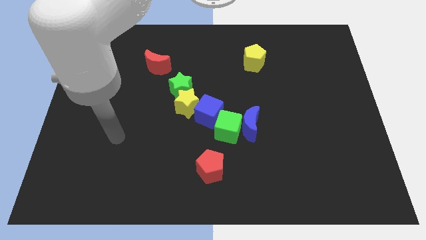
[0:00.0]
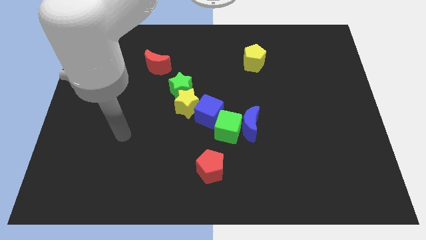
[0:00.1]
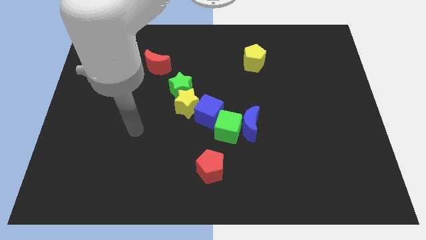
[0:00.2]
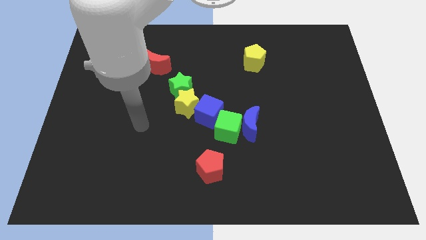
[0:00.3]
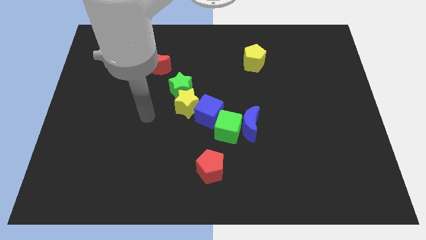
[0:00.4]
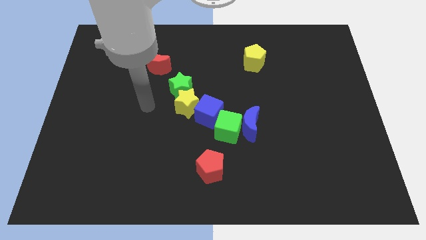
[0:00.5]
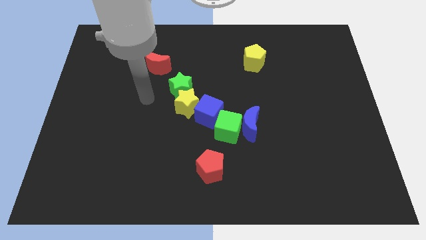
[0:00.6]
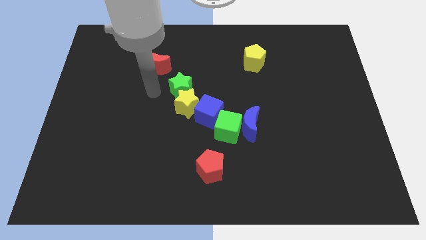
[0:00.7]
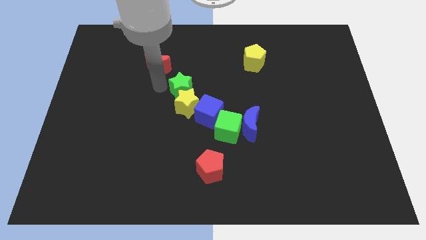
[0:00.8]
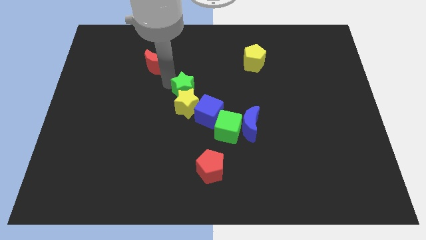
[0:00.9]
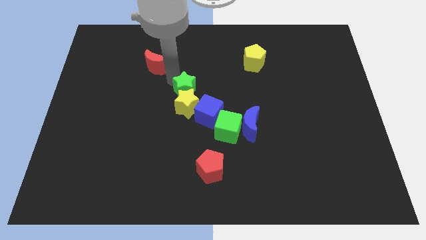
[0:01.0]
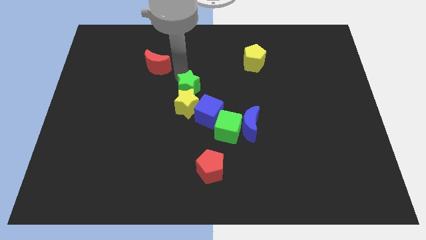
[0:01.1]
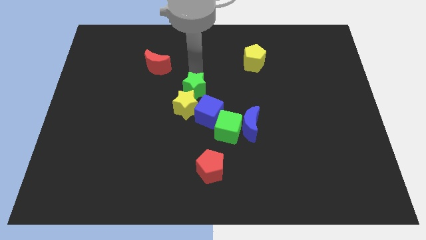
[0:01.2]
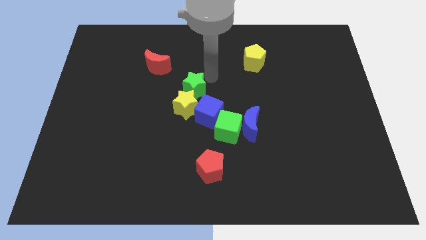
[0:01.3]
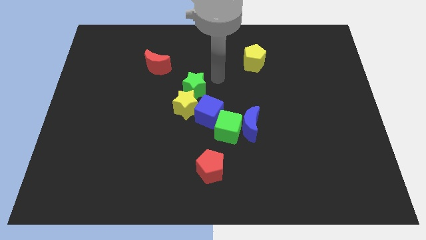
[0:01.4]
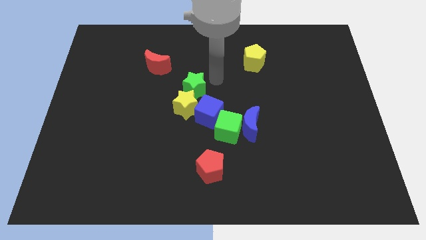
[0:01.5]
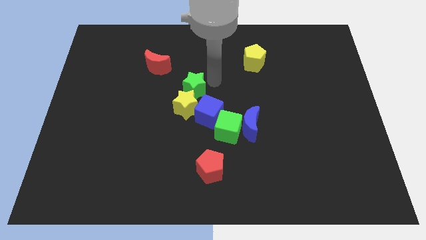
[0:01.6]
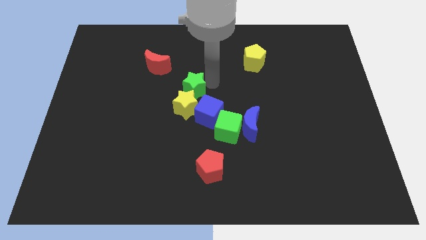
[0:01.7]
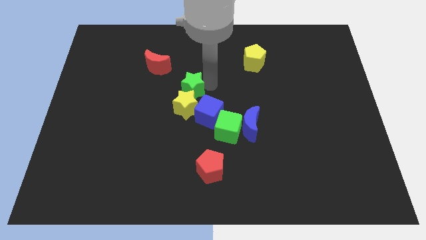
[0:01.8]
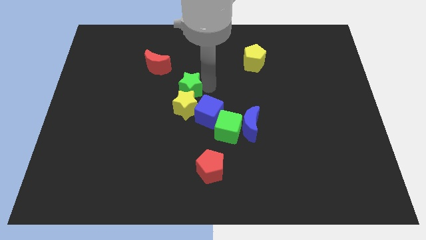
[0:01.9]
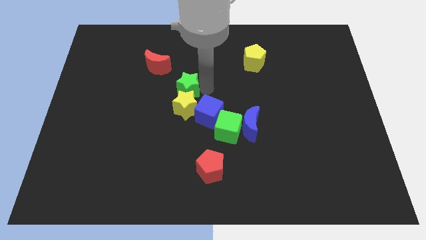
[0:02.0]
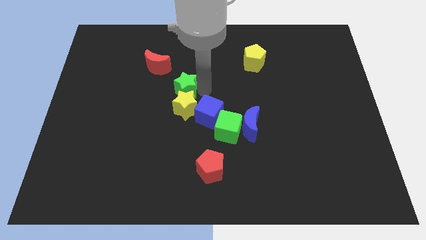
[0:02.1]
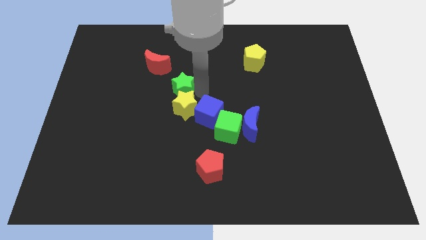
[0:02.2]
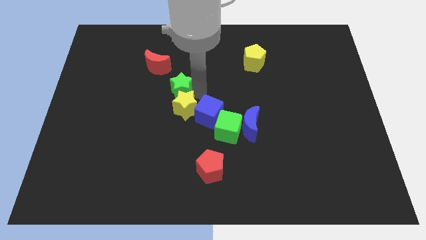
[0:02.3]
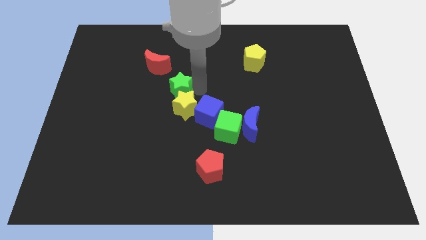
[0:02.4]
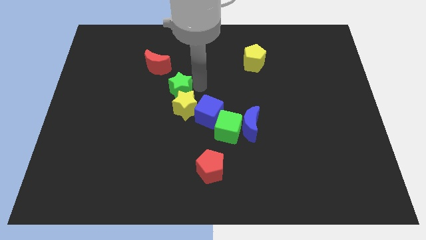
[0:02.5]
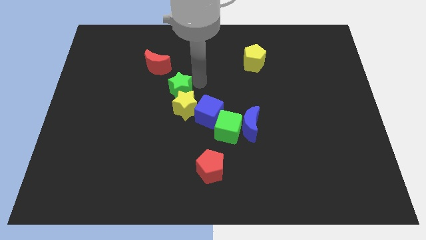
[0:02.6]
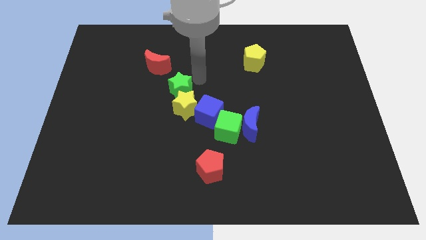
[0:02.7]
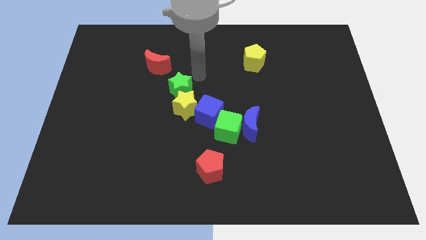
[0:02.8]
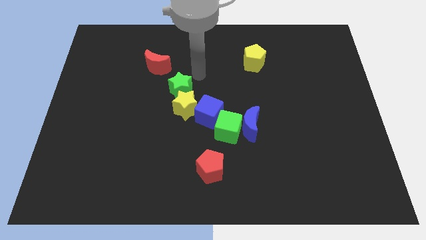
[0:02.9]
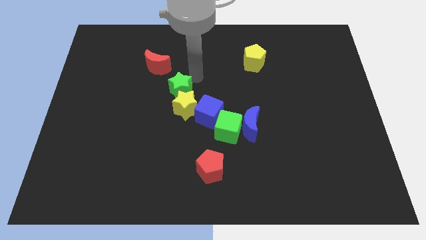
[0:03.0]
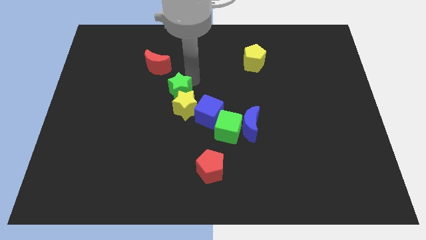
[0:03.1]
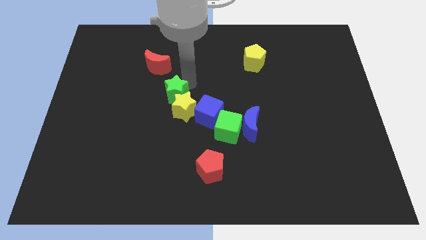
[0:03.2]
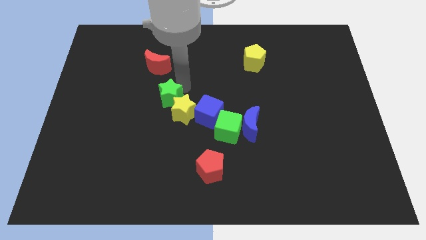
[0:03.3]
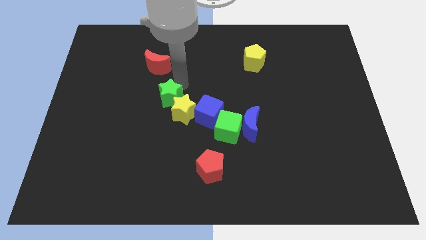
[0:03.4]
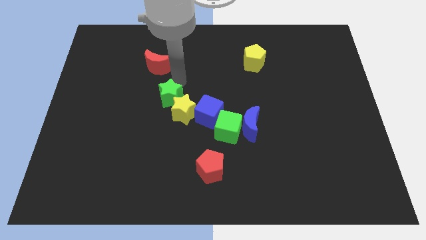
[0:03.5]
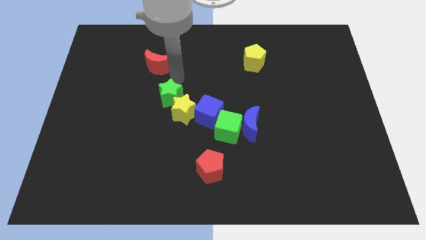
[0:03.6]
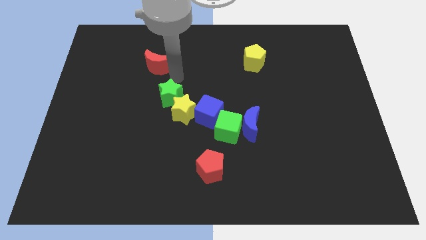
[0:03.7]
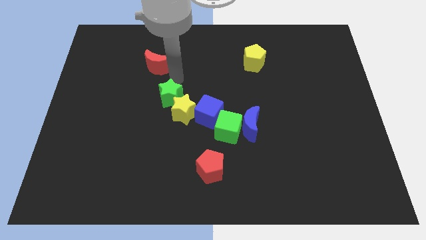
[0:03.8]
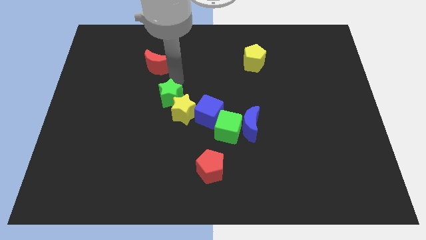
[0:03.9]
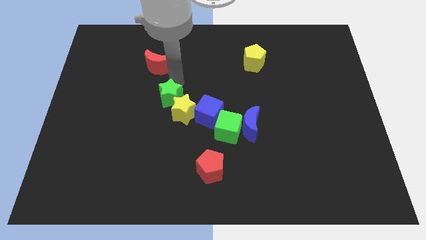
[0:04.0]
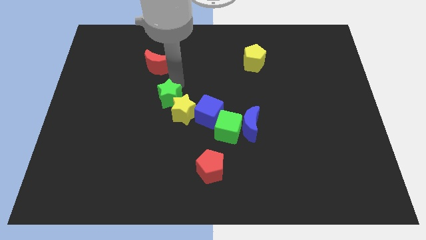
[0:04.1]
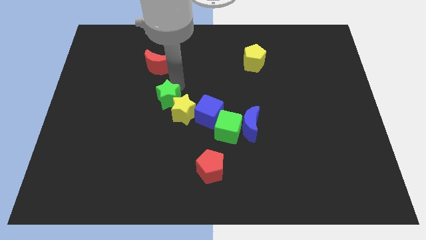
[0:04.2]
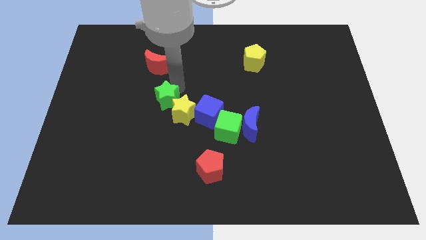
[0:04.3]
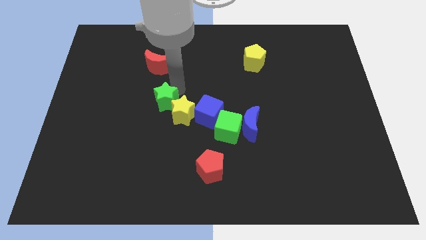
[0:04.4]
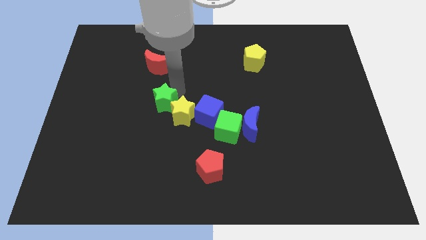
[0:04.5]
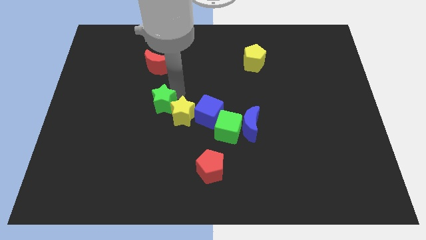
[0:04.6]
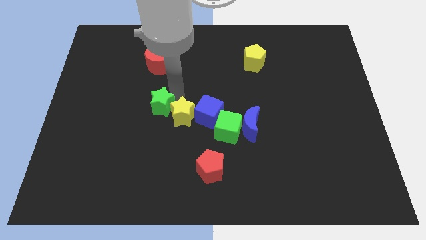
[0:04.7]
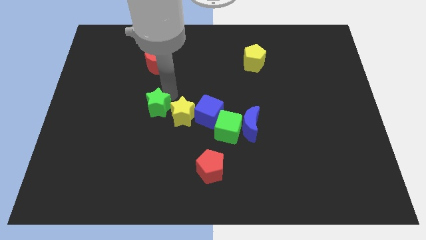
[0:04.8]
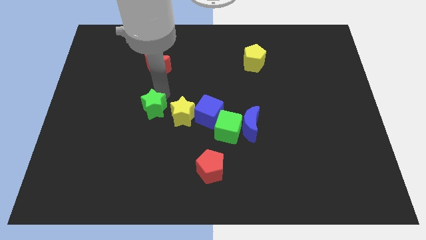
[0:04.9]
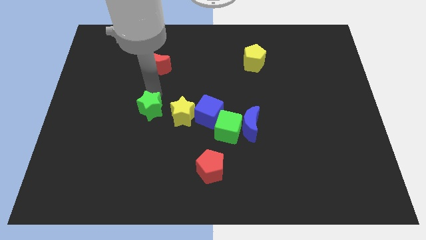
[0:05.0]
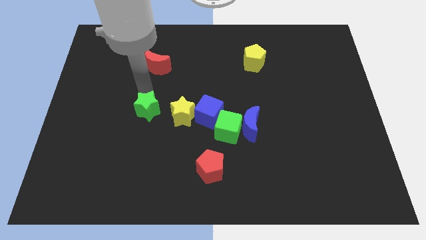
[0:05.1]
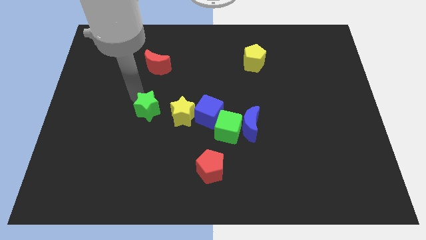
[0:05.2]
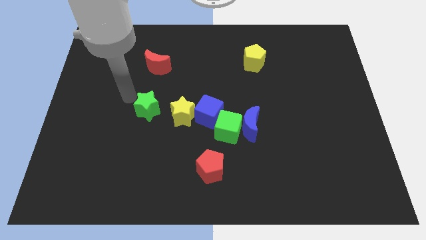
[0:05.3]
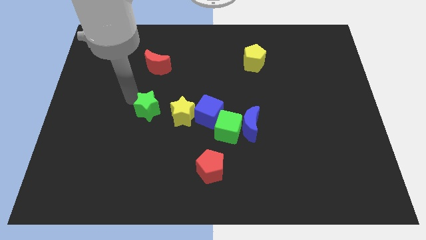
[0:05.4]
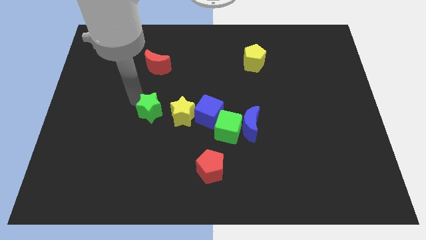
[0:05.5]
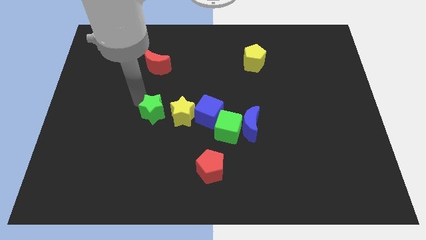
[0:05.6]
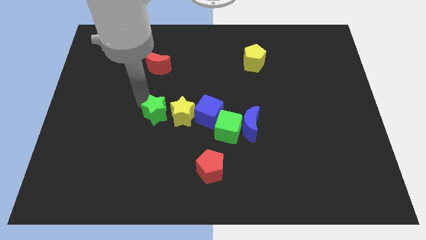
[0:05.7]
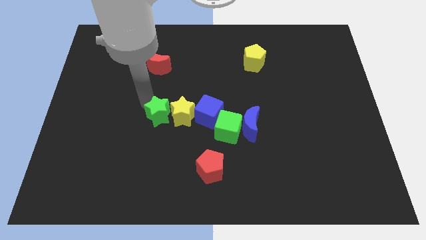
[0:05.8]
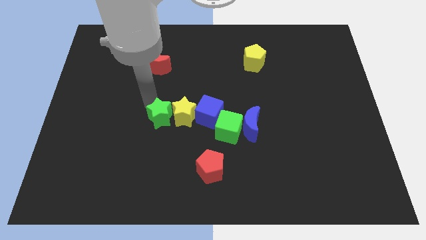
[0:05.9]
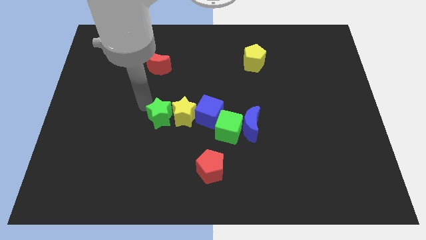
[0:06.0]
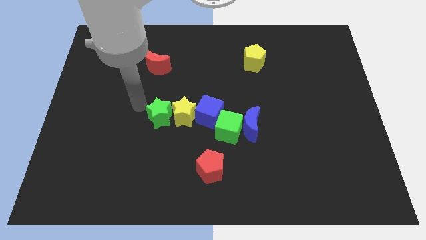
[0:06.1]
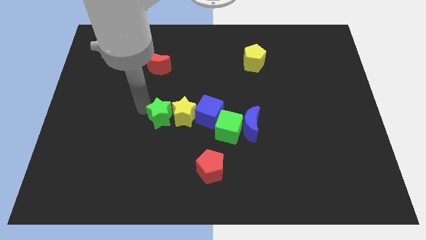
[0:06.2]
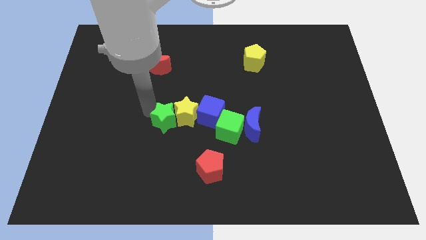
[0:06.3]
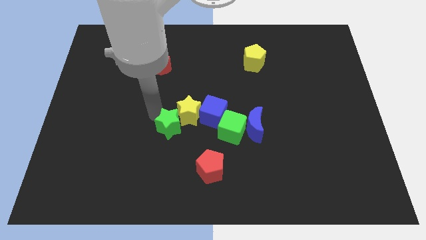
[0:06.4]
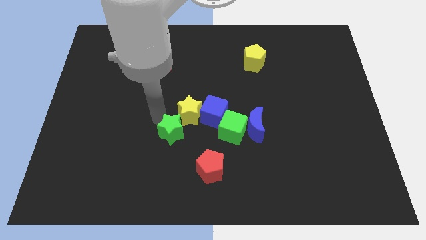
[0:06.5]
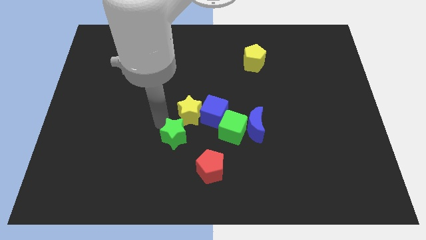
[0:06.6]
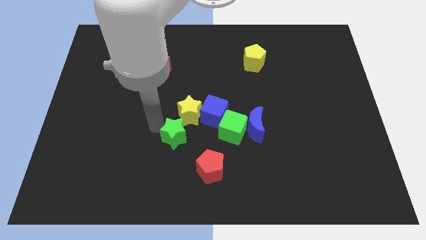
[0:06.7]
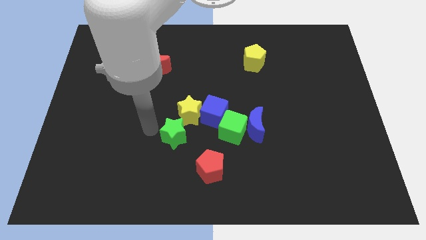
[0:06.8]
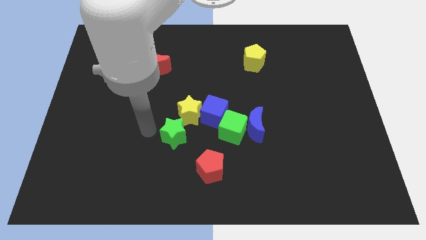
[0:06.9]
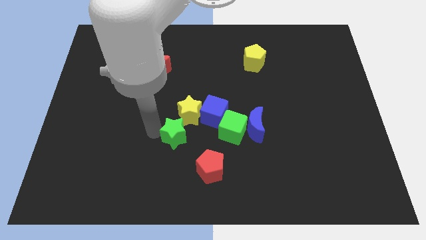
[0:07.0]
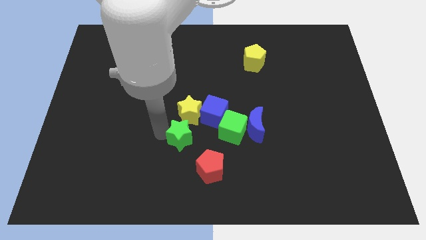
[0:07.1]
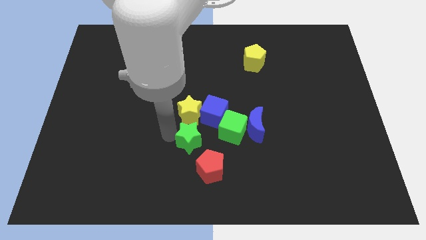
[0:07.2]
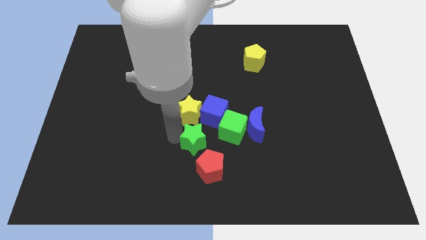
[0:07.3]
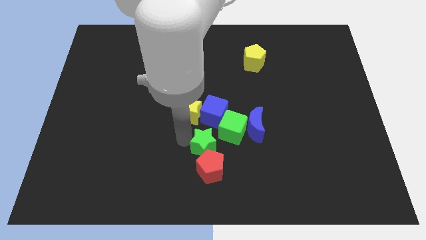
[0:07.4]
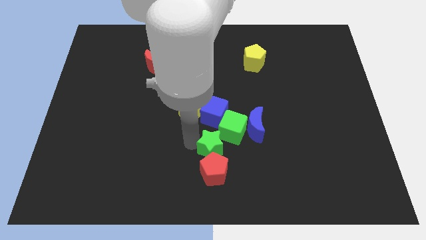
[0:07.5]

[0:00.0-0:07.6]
move the green star to the bottom left of the blue moon
